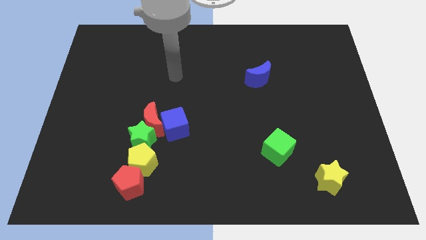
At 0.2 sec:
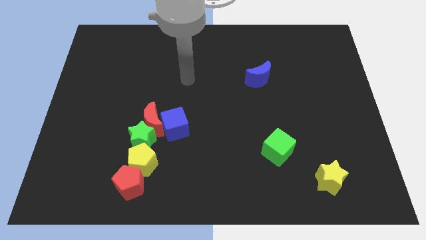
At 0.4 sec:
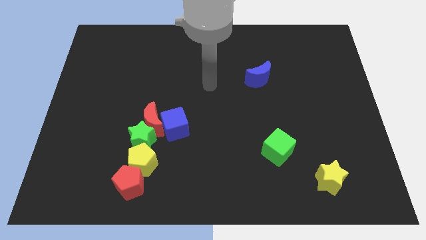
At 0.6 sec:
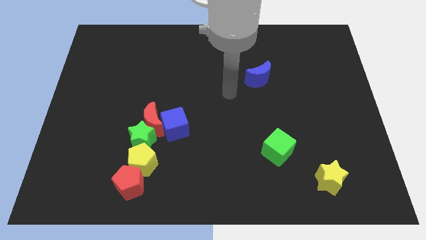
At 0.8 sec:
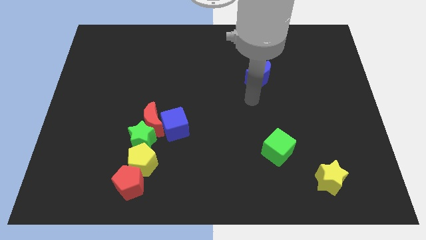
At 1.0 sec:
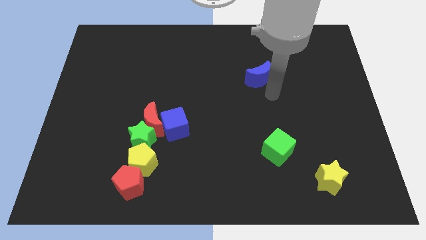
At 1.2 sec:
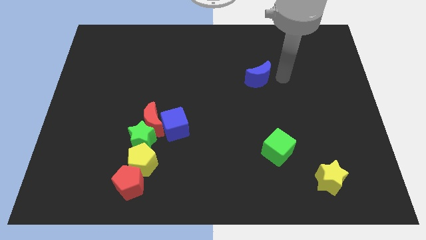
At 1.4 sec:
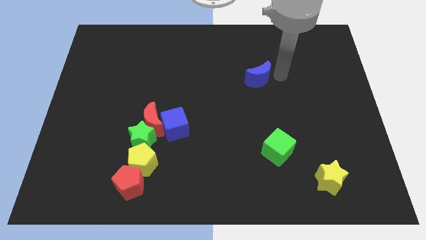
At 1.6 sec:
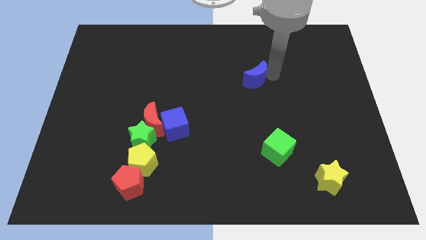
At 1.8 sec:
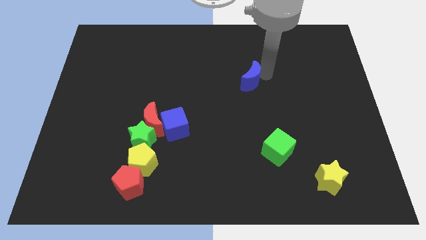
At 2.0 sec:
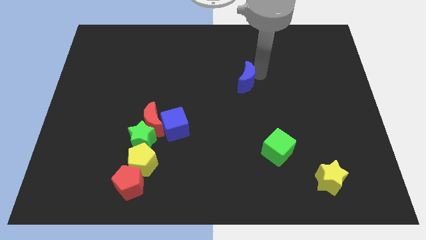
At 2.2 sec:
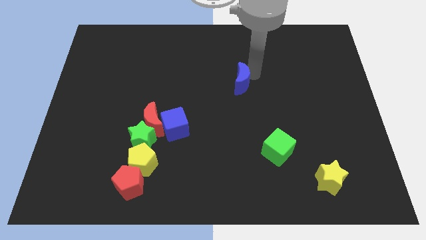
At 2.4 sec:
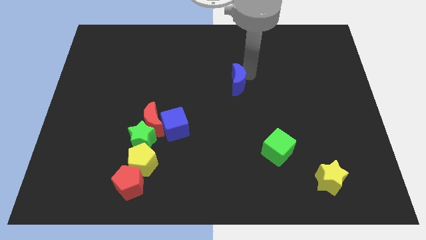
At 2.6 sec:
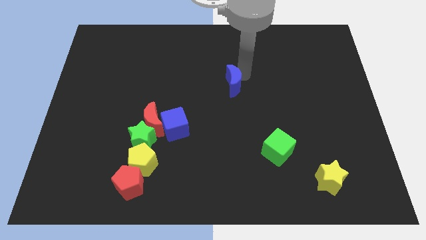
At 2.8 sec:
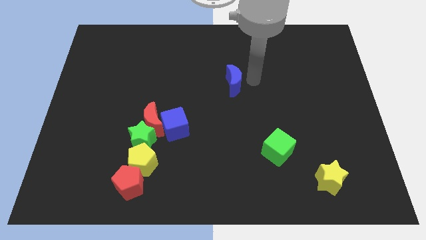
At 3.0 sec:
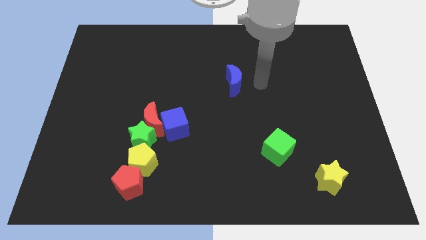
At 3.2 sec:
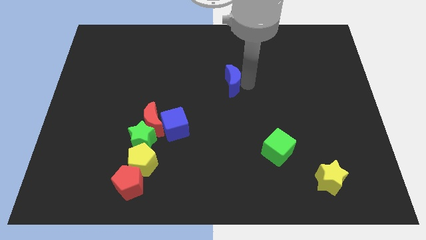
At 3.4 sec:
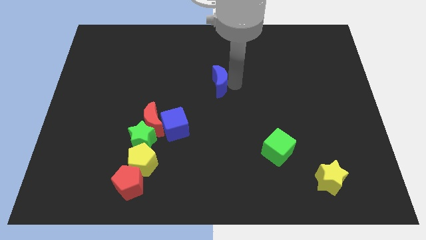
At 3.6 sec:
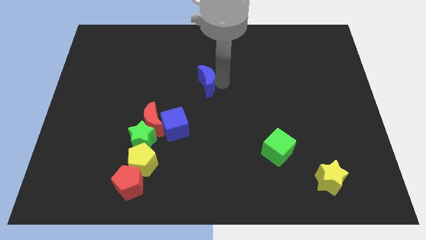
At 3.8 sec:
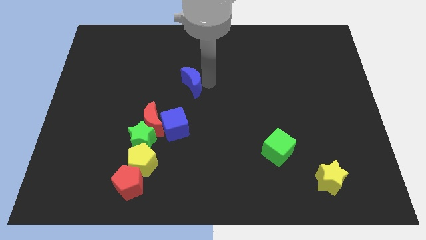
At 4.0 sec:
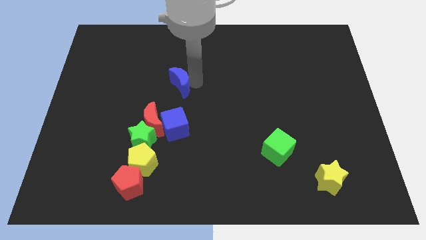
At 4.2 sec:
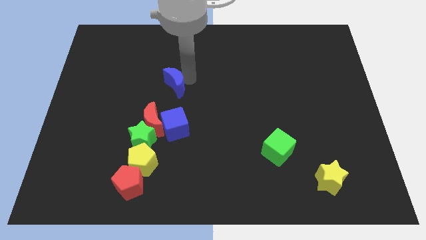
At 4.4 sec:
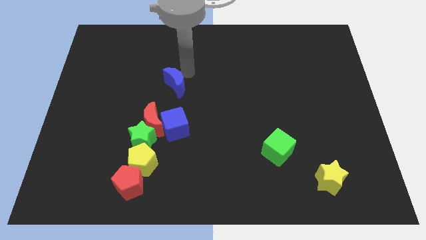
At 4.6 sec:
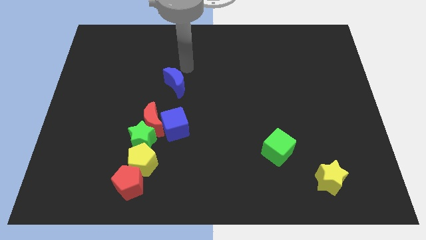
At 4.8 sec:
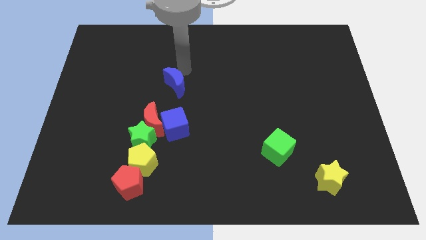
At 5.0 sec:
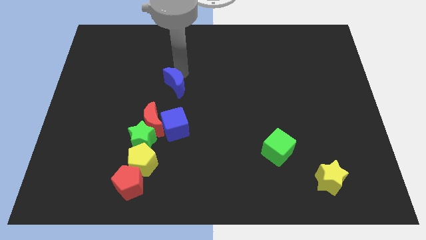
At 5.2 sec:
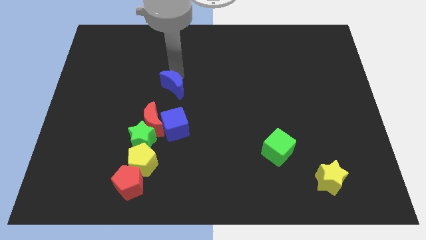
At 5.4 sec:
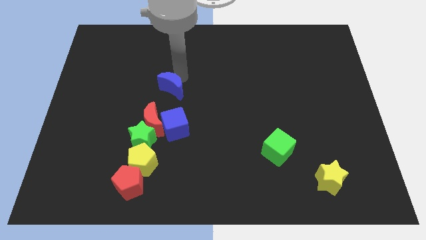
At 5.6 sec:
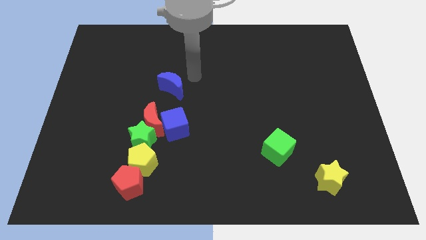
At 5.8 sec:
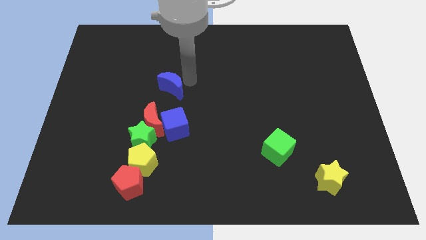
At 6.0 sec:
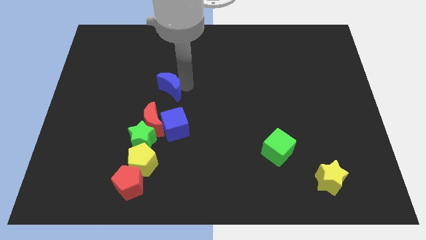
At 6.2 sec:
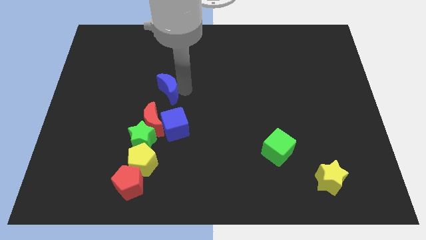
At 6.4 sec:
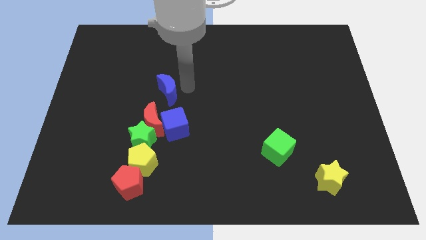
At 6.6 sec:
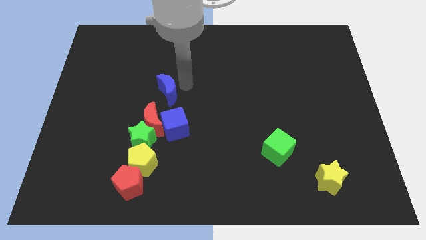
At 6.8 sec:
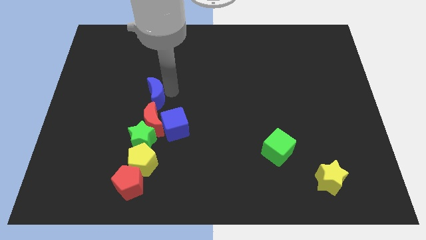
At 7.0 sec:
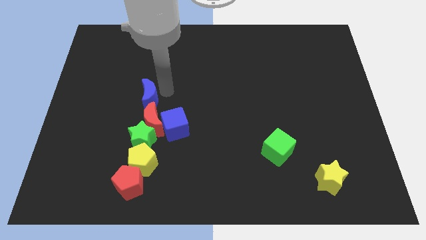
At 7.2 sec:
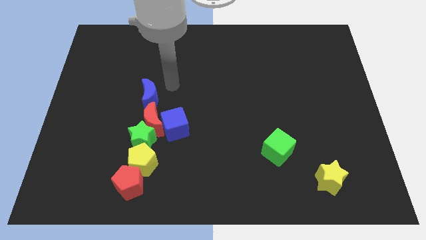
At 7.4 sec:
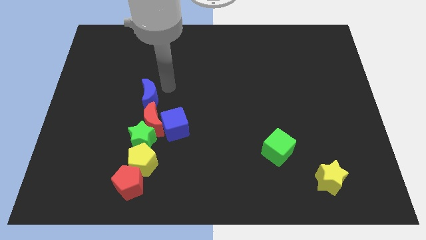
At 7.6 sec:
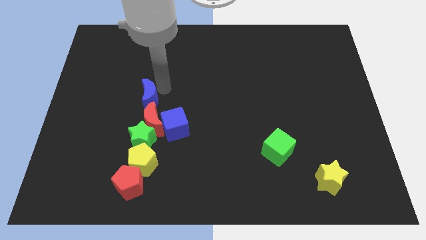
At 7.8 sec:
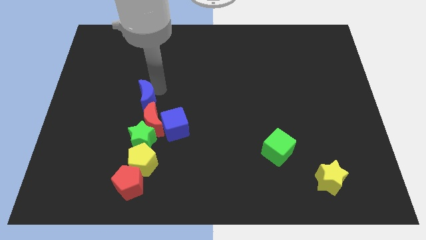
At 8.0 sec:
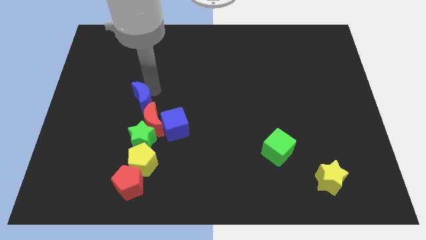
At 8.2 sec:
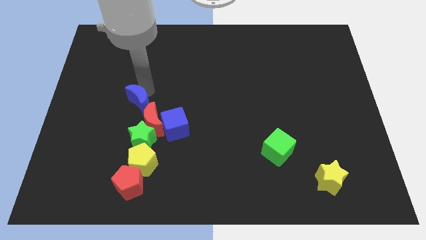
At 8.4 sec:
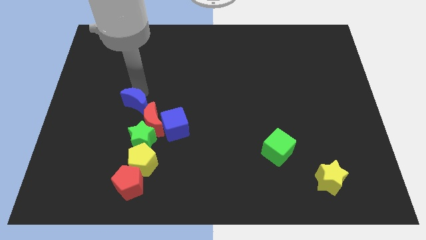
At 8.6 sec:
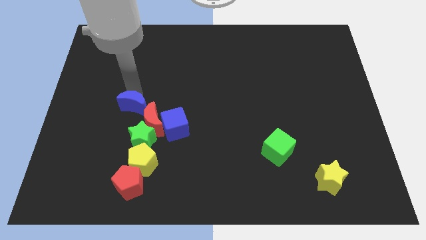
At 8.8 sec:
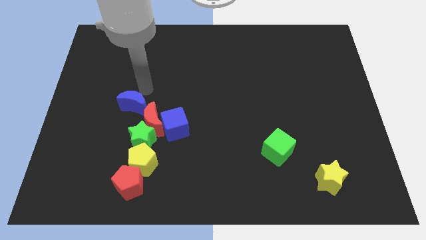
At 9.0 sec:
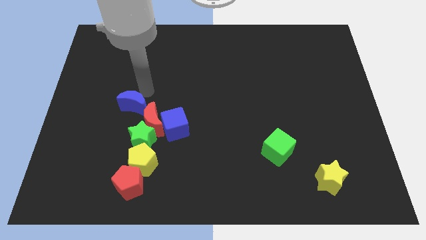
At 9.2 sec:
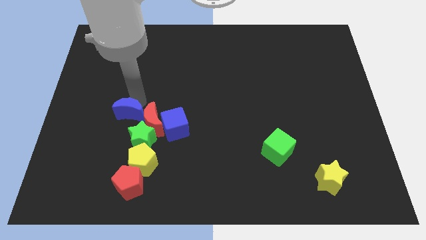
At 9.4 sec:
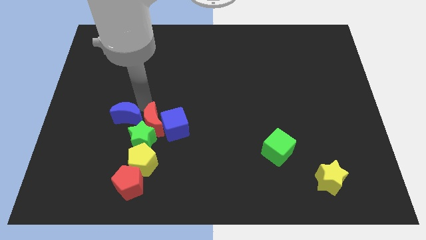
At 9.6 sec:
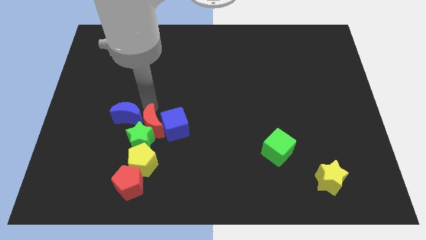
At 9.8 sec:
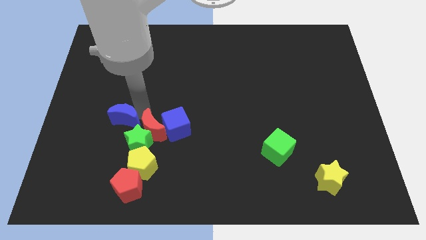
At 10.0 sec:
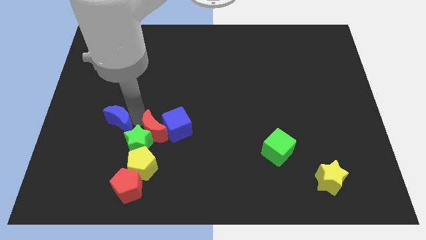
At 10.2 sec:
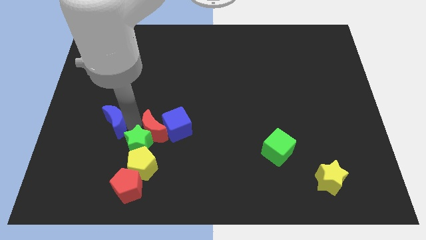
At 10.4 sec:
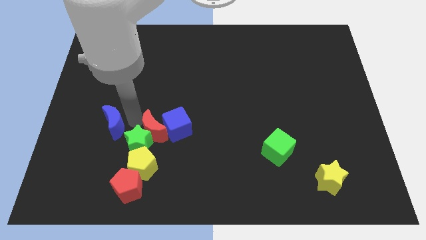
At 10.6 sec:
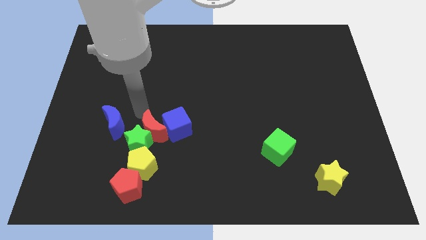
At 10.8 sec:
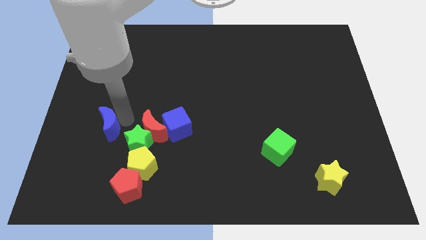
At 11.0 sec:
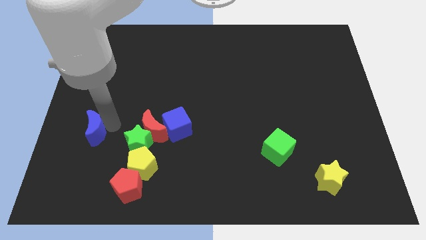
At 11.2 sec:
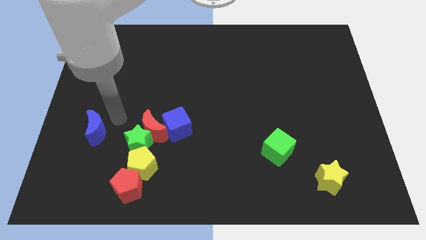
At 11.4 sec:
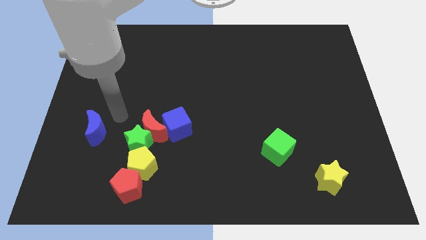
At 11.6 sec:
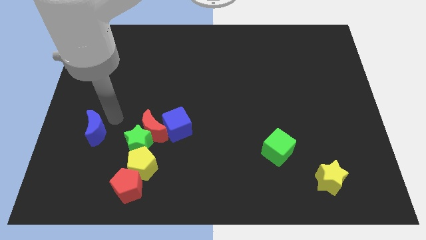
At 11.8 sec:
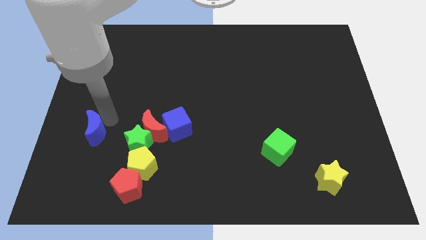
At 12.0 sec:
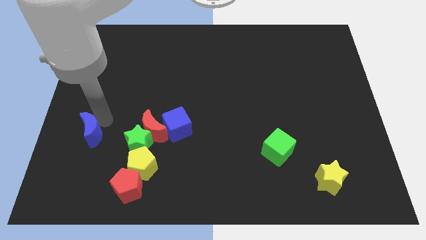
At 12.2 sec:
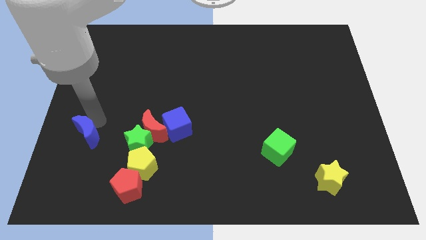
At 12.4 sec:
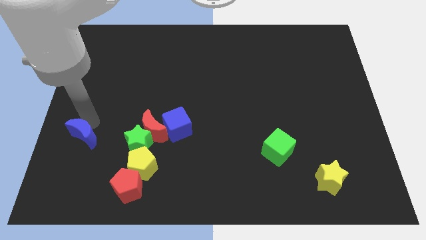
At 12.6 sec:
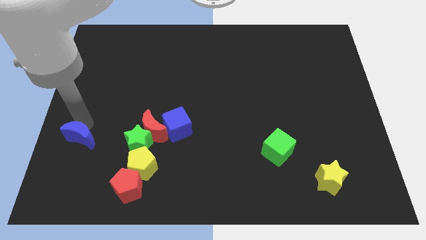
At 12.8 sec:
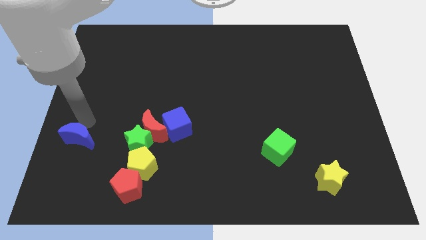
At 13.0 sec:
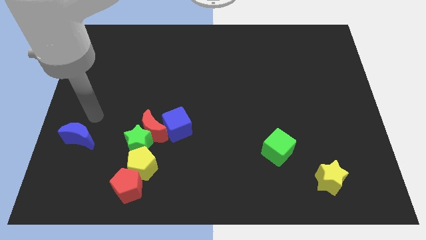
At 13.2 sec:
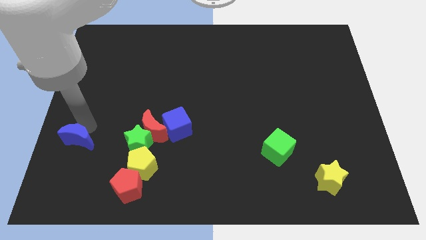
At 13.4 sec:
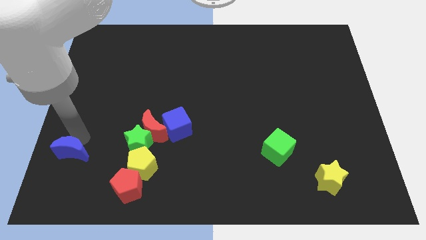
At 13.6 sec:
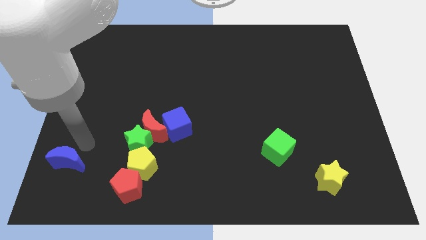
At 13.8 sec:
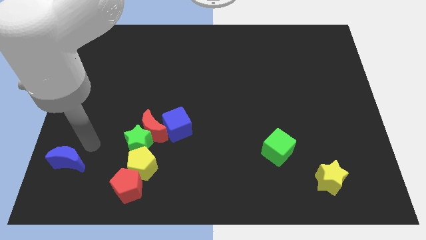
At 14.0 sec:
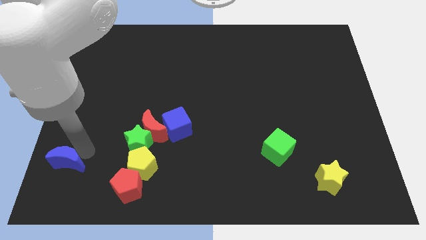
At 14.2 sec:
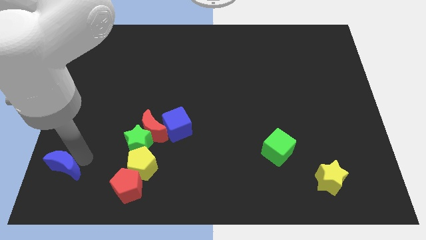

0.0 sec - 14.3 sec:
slide the blue moon to the bottom left
